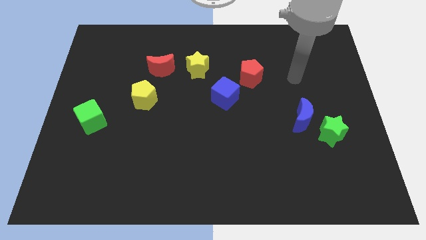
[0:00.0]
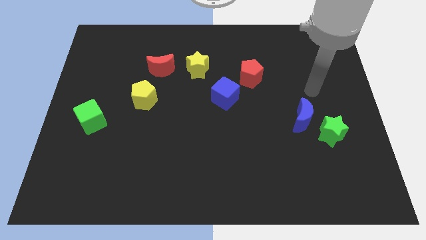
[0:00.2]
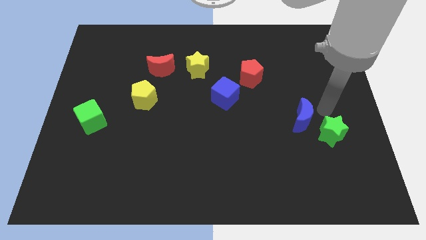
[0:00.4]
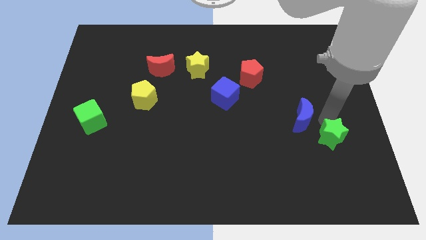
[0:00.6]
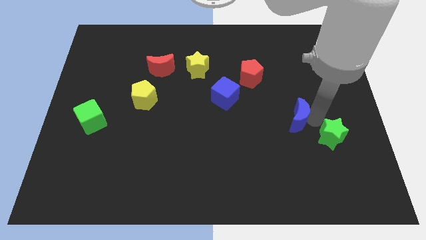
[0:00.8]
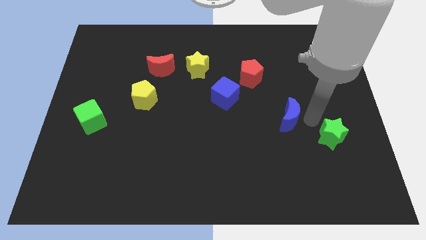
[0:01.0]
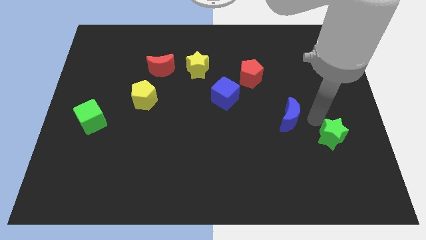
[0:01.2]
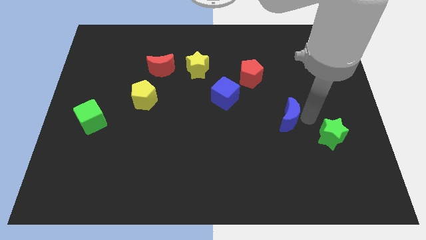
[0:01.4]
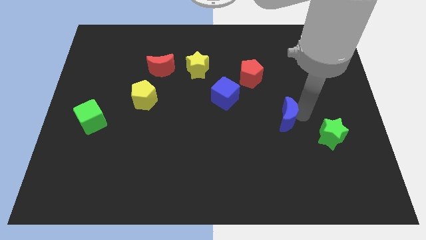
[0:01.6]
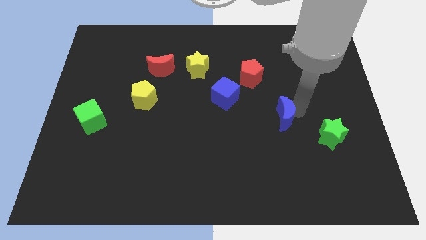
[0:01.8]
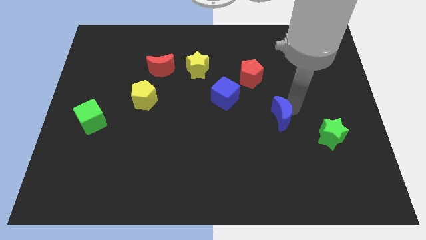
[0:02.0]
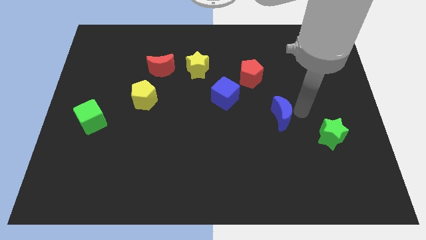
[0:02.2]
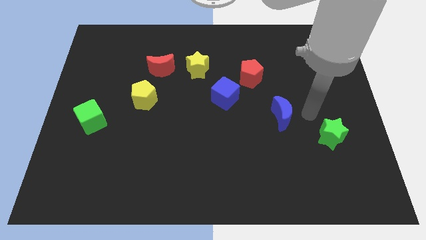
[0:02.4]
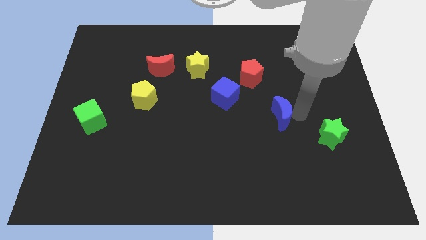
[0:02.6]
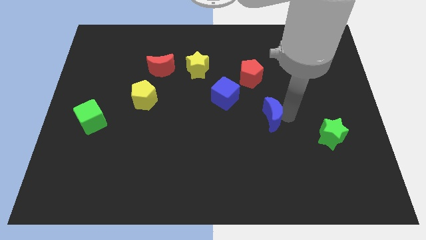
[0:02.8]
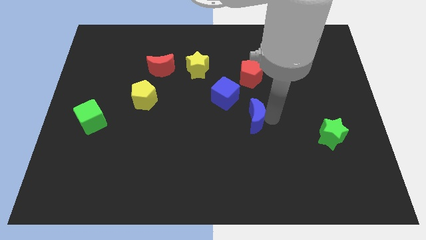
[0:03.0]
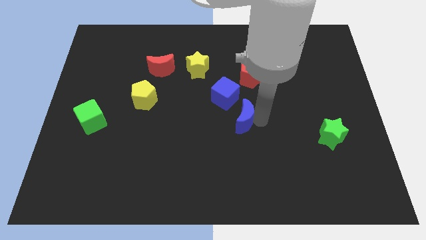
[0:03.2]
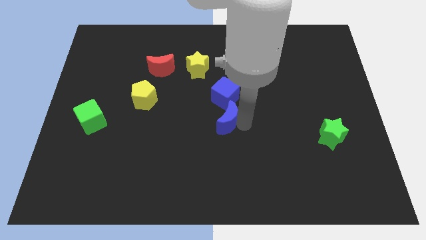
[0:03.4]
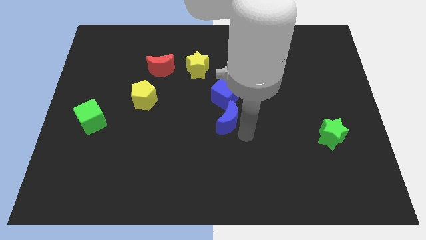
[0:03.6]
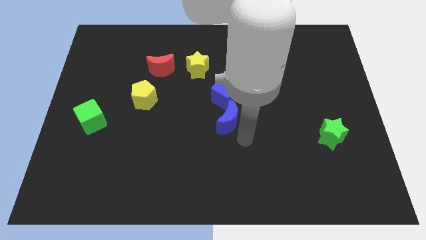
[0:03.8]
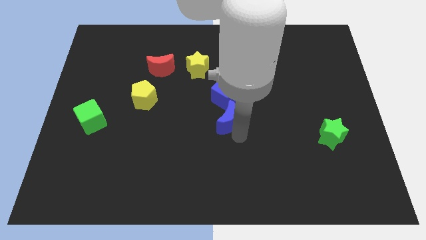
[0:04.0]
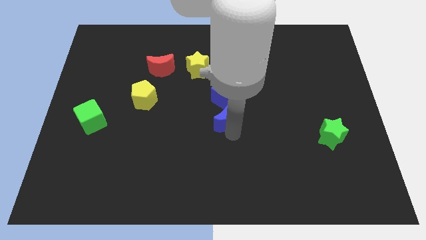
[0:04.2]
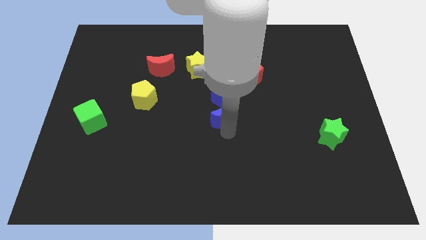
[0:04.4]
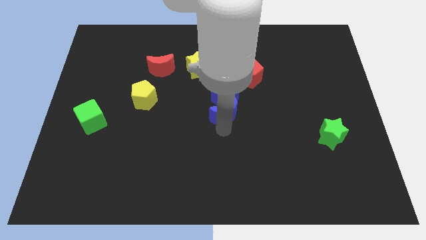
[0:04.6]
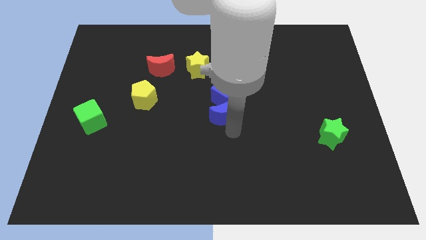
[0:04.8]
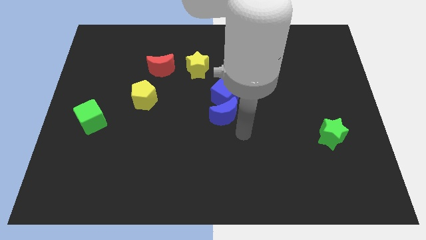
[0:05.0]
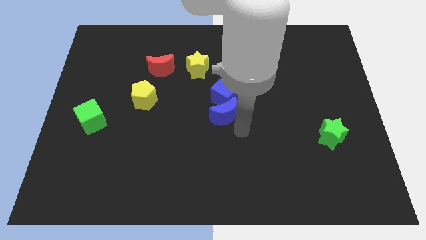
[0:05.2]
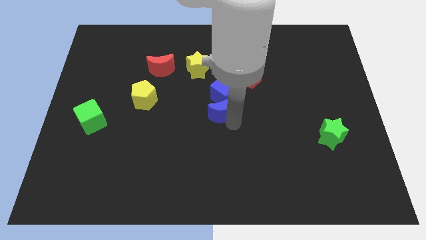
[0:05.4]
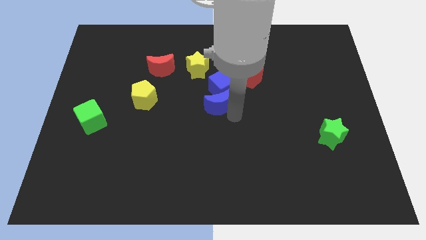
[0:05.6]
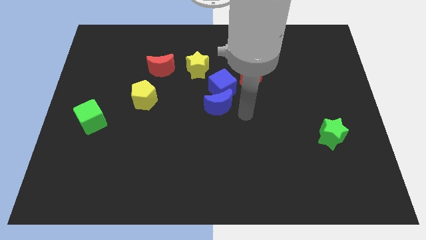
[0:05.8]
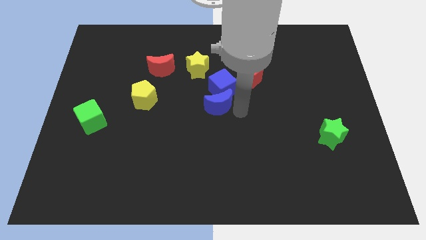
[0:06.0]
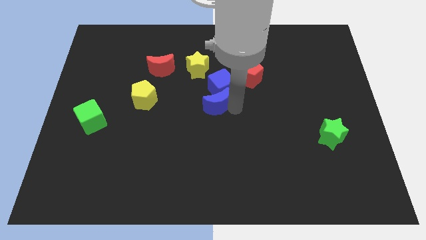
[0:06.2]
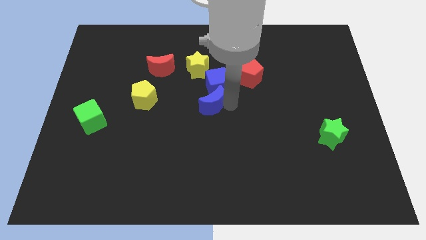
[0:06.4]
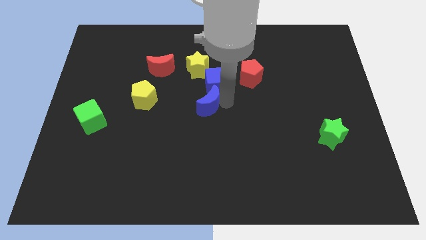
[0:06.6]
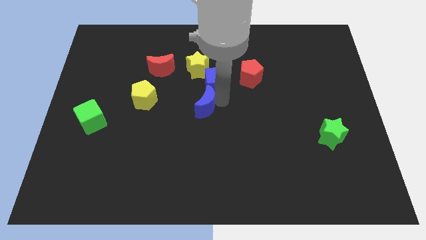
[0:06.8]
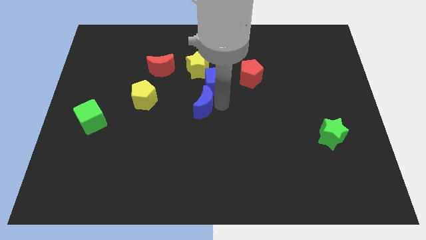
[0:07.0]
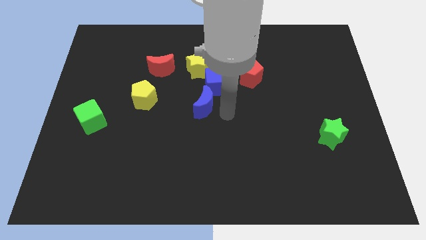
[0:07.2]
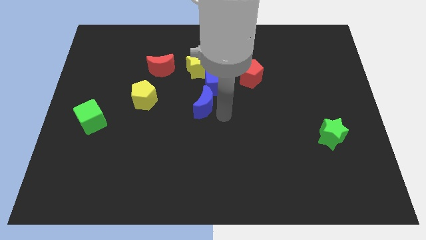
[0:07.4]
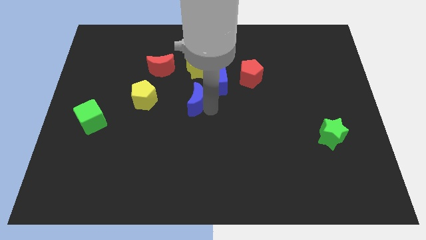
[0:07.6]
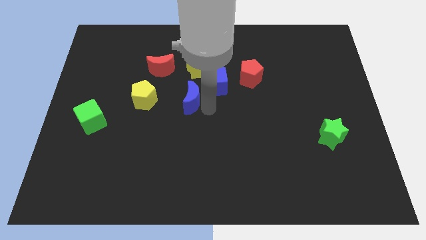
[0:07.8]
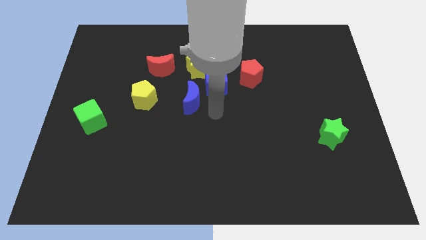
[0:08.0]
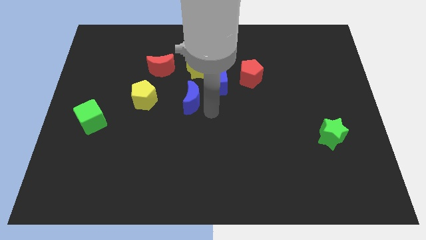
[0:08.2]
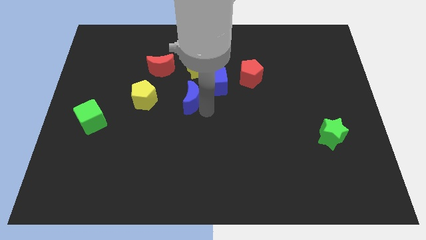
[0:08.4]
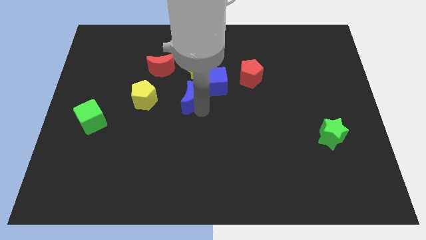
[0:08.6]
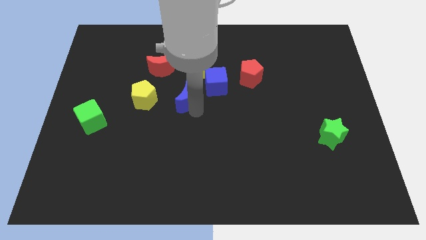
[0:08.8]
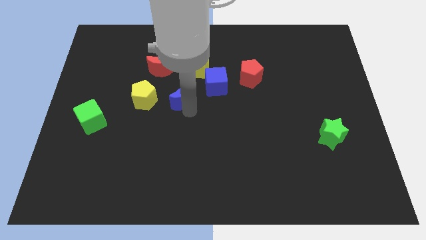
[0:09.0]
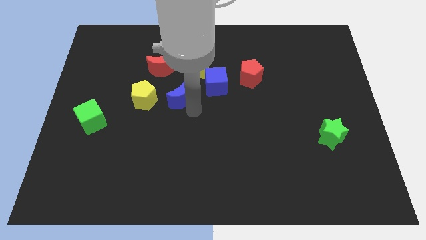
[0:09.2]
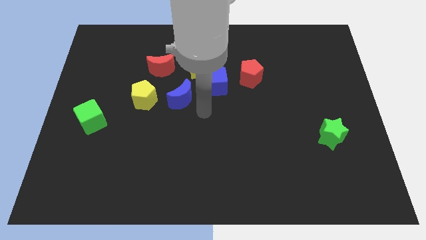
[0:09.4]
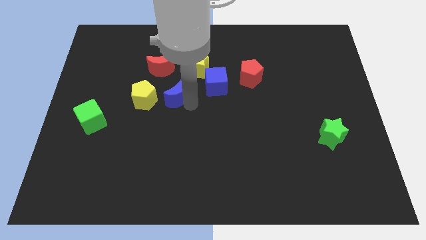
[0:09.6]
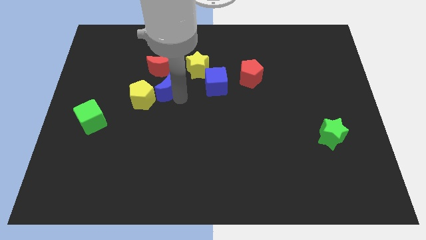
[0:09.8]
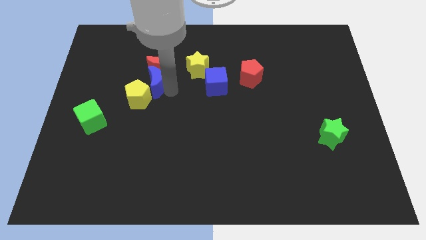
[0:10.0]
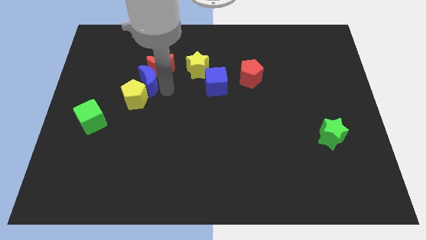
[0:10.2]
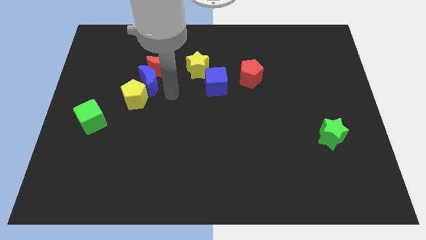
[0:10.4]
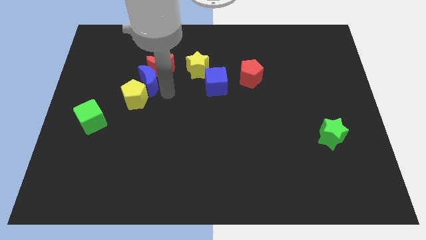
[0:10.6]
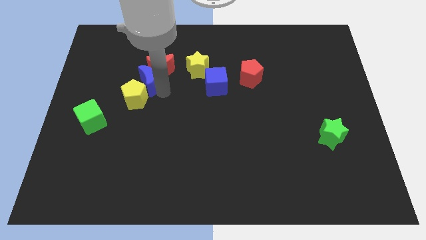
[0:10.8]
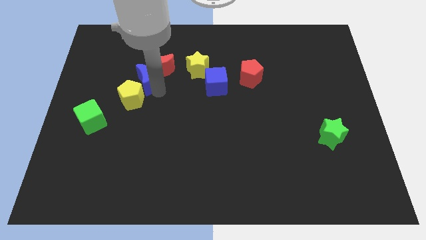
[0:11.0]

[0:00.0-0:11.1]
put the blue moon to the left of the red moon

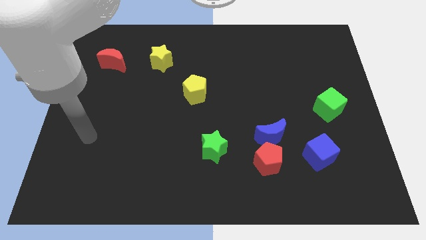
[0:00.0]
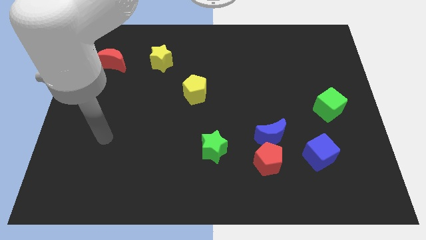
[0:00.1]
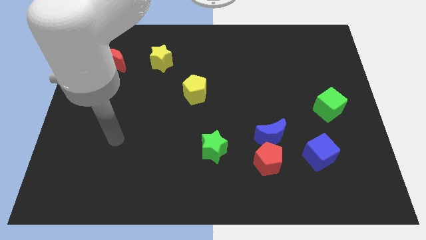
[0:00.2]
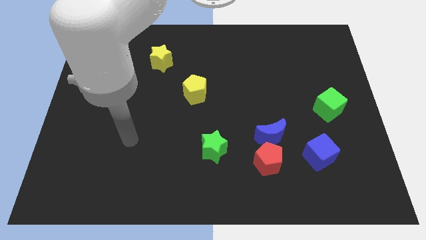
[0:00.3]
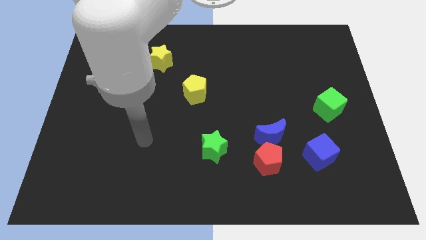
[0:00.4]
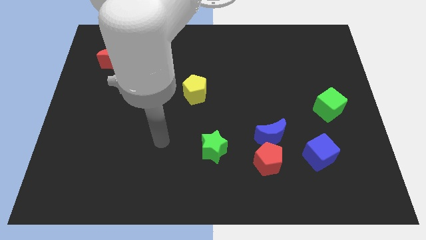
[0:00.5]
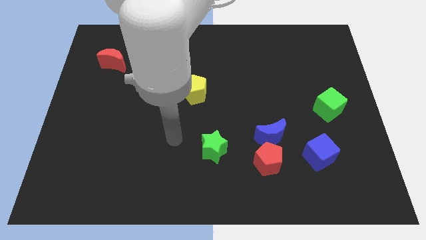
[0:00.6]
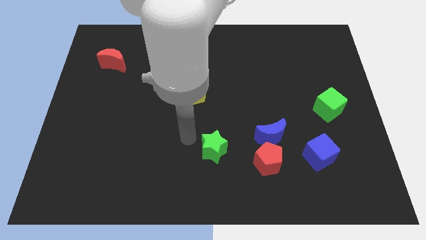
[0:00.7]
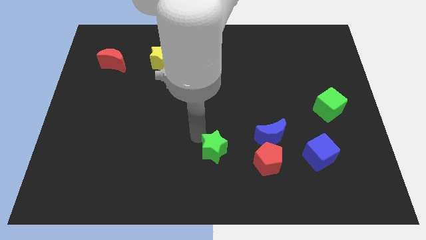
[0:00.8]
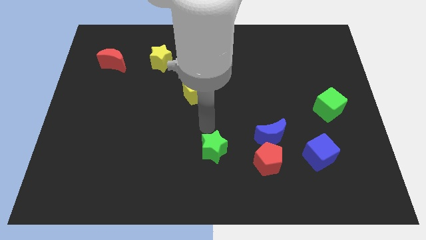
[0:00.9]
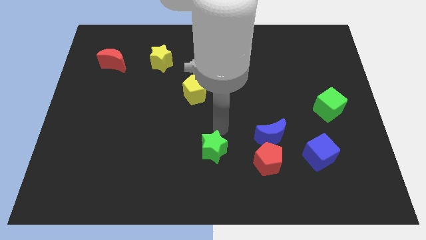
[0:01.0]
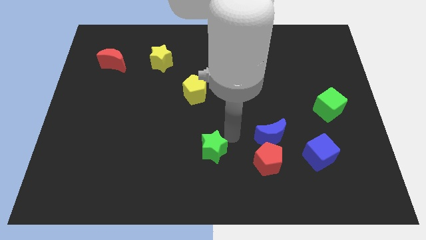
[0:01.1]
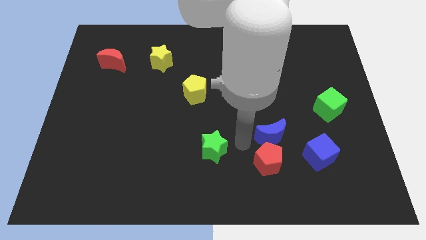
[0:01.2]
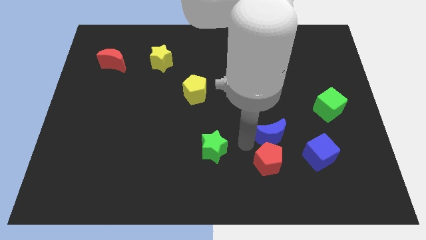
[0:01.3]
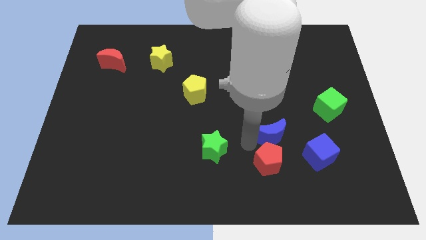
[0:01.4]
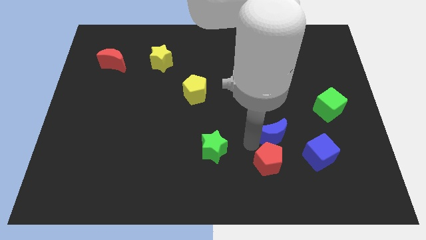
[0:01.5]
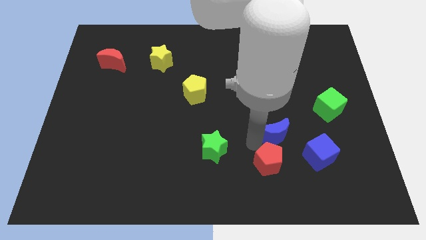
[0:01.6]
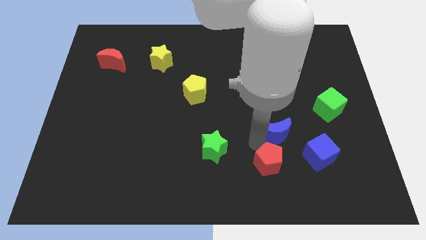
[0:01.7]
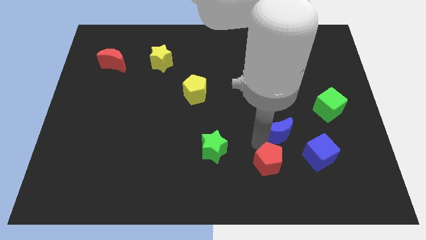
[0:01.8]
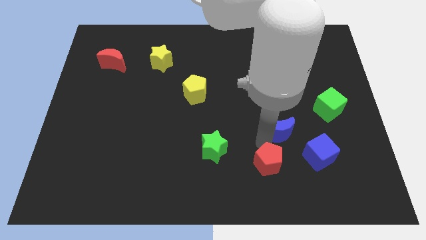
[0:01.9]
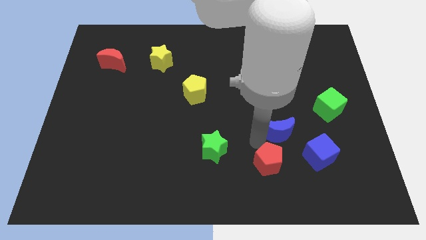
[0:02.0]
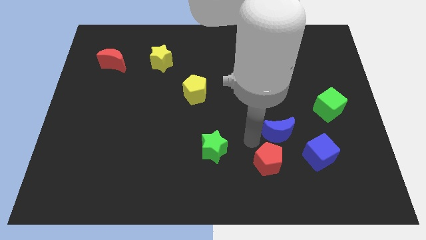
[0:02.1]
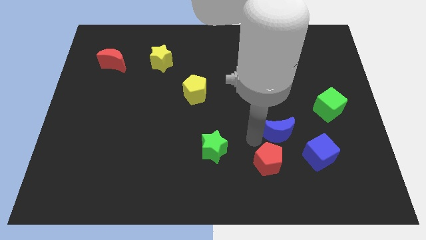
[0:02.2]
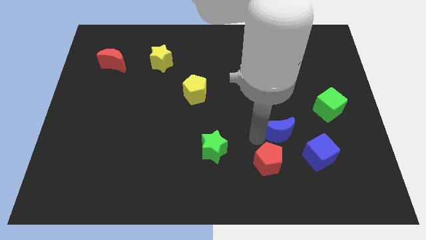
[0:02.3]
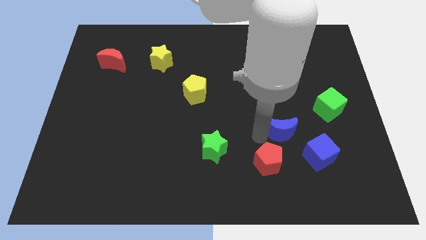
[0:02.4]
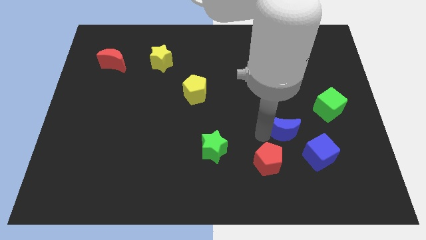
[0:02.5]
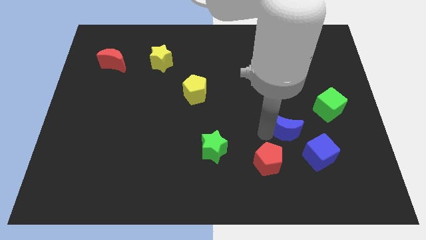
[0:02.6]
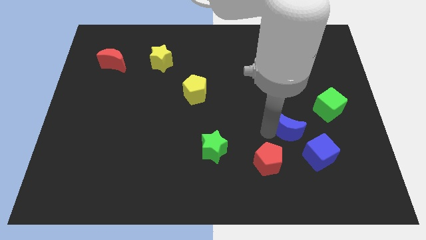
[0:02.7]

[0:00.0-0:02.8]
put the blue moon to the bottom left of the green cube
